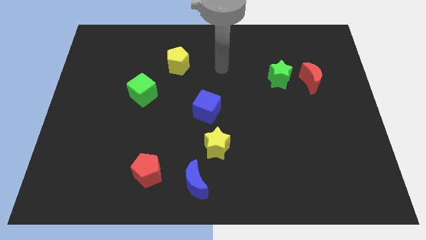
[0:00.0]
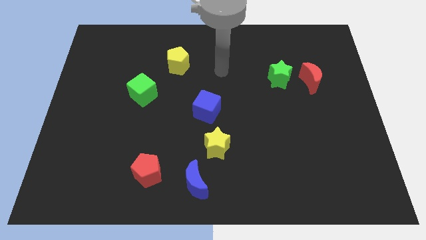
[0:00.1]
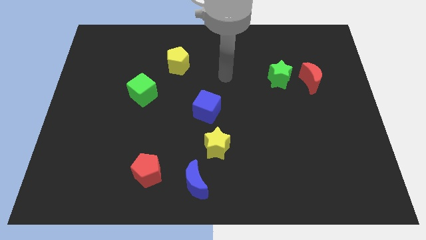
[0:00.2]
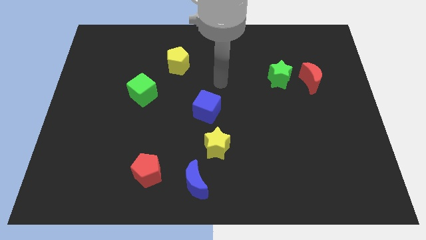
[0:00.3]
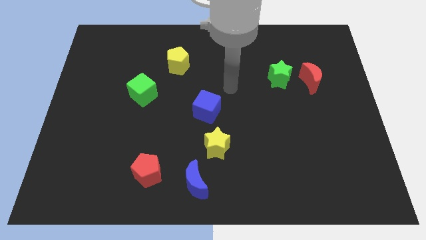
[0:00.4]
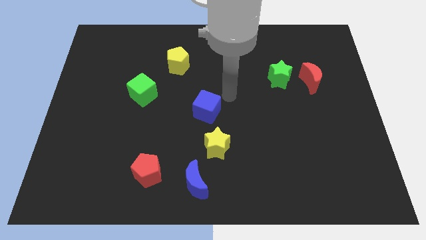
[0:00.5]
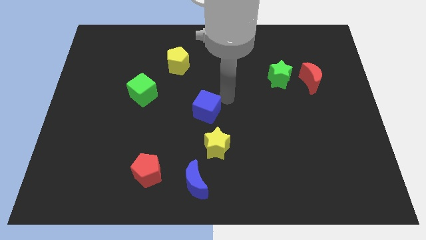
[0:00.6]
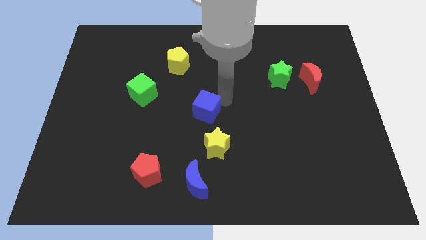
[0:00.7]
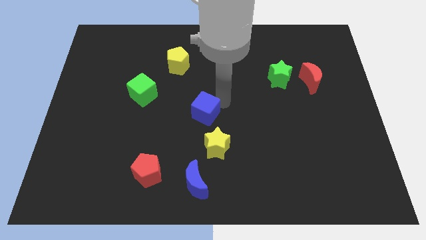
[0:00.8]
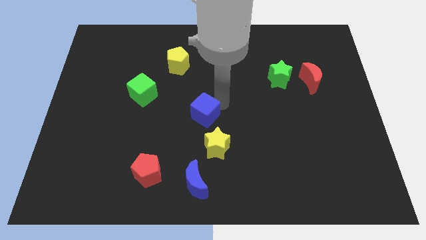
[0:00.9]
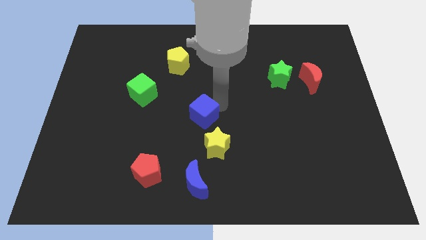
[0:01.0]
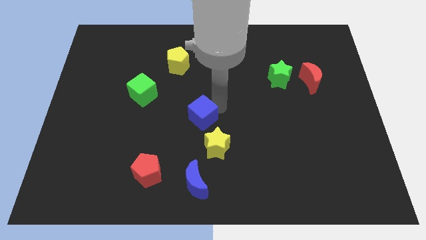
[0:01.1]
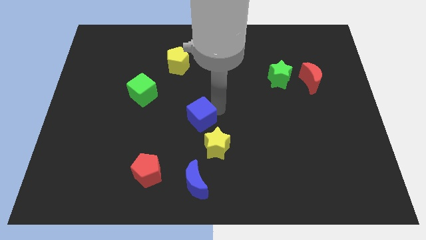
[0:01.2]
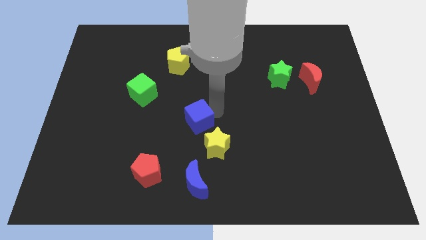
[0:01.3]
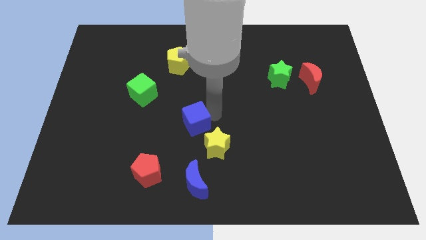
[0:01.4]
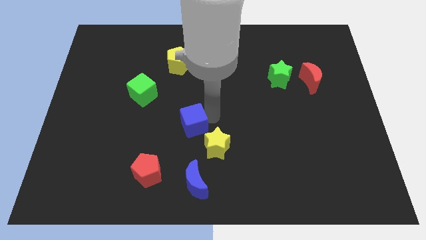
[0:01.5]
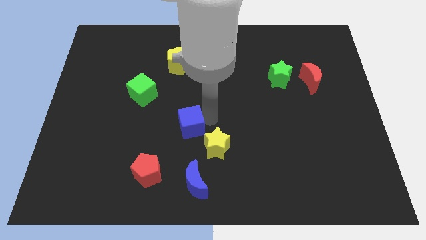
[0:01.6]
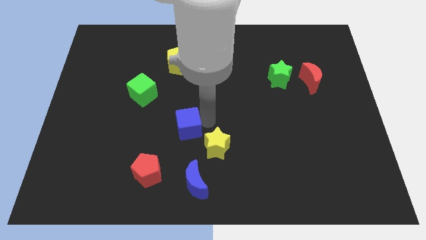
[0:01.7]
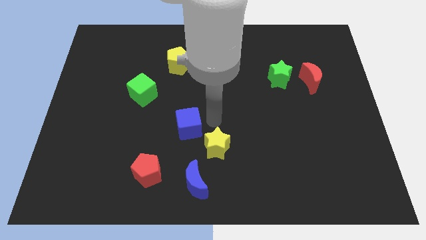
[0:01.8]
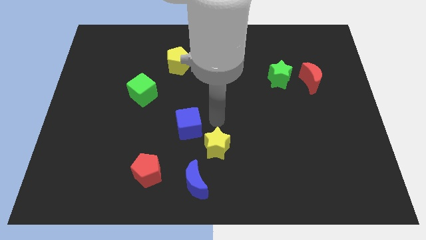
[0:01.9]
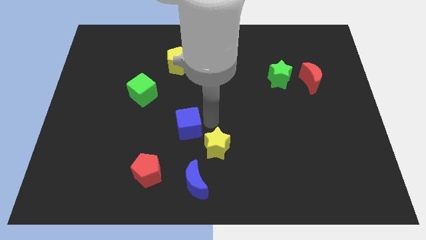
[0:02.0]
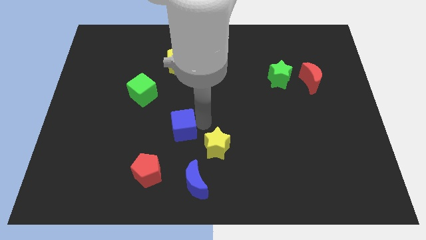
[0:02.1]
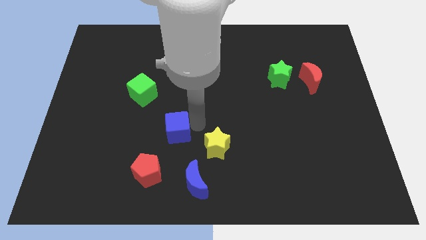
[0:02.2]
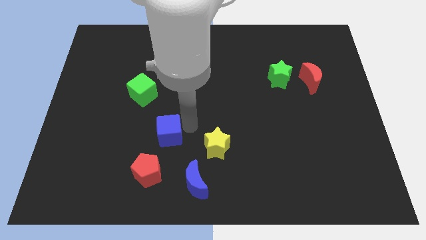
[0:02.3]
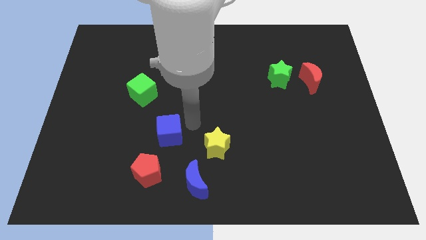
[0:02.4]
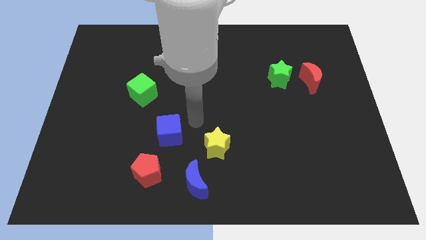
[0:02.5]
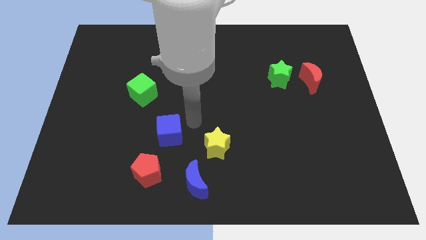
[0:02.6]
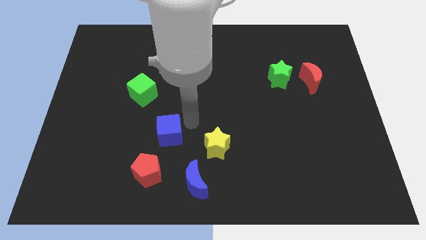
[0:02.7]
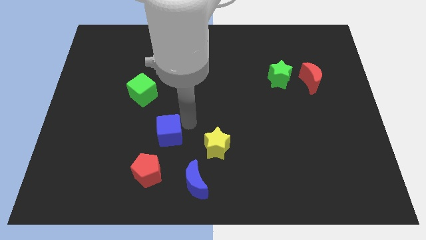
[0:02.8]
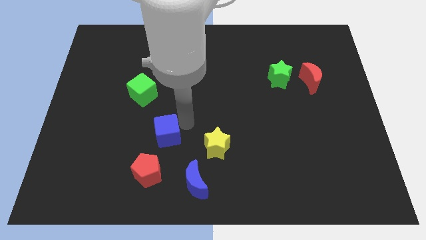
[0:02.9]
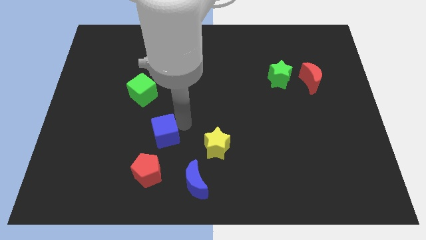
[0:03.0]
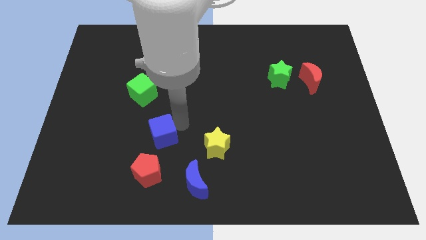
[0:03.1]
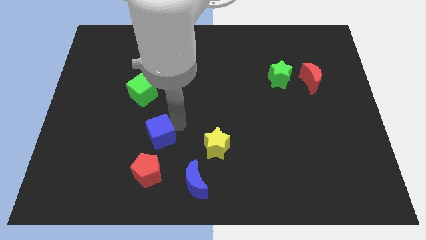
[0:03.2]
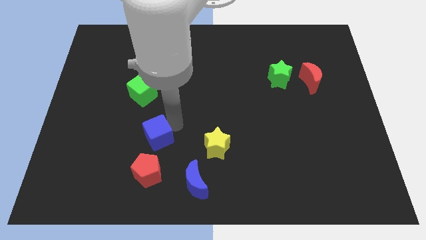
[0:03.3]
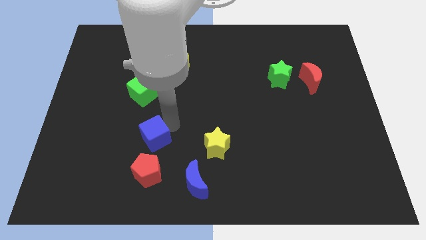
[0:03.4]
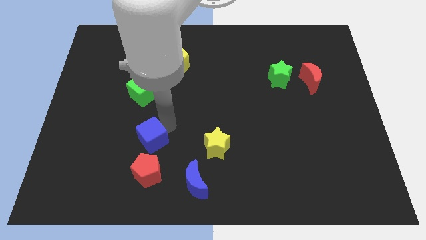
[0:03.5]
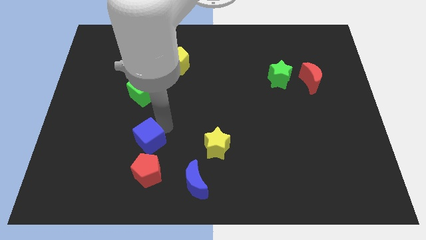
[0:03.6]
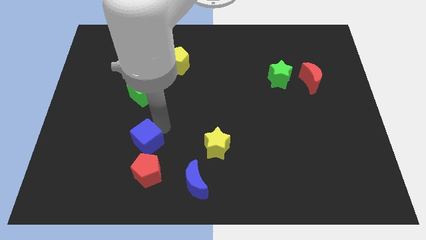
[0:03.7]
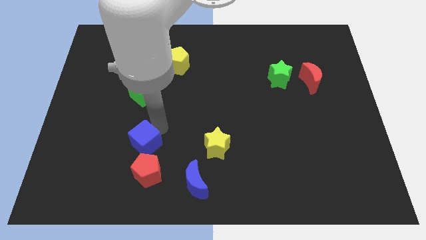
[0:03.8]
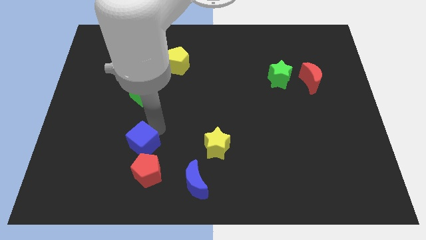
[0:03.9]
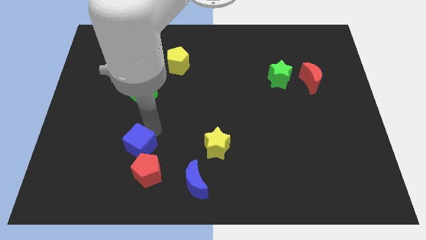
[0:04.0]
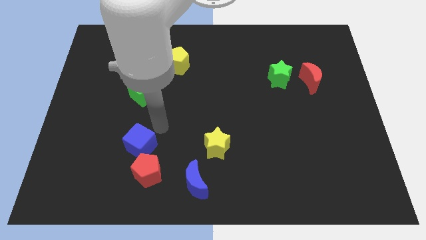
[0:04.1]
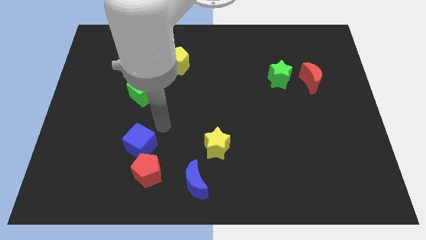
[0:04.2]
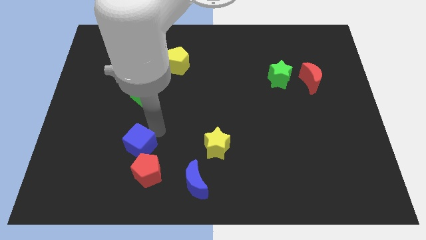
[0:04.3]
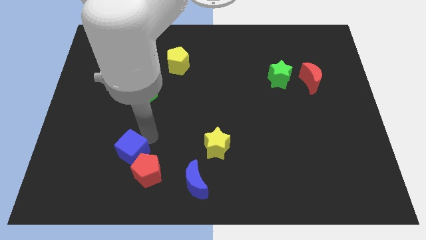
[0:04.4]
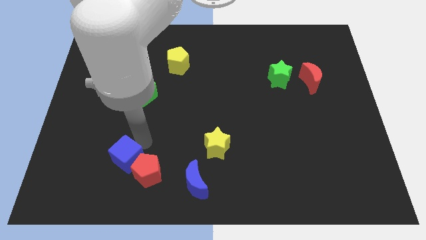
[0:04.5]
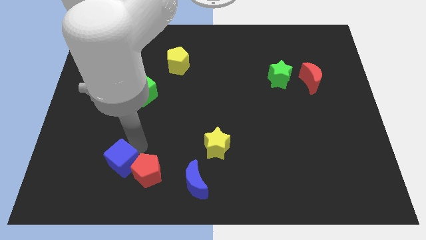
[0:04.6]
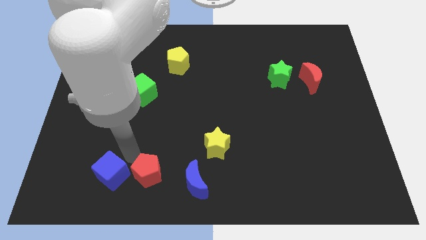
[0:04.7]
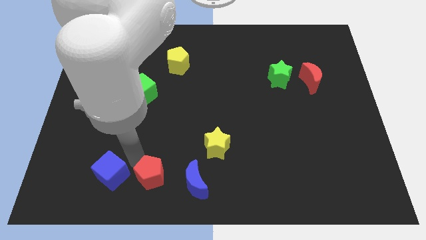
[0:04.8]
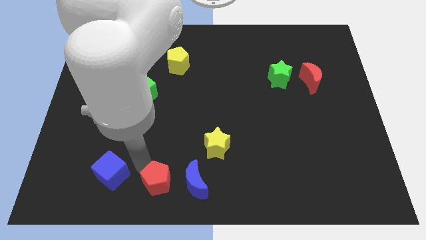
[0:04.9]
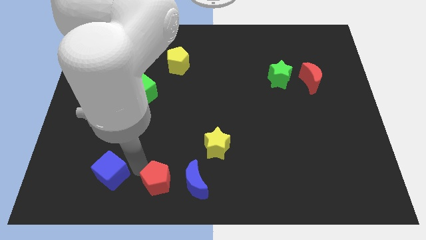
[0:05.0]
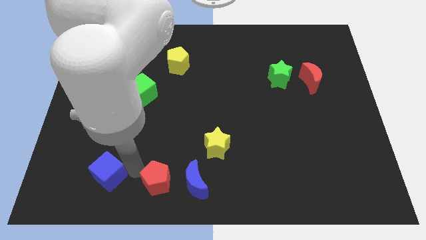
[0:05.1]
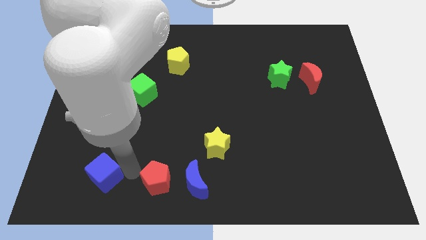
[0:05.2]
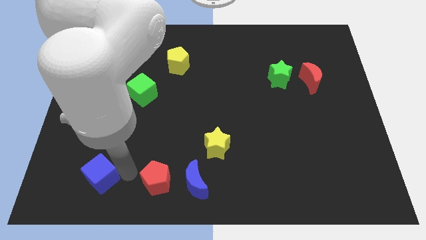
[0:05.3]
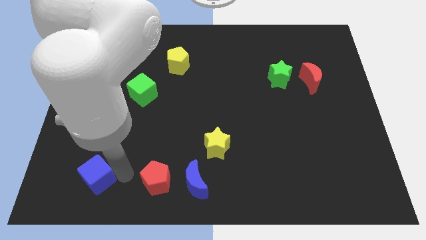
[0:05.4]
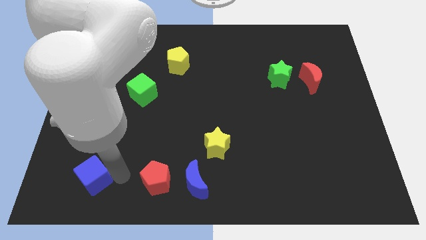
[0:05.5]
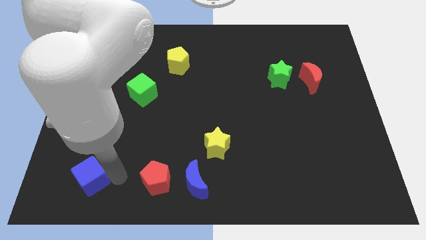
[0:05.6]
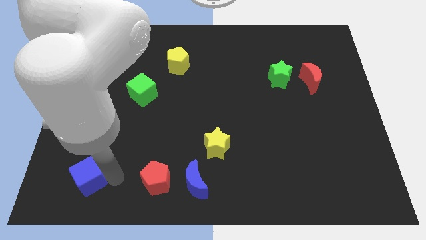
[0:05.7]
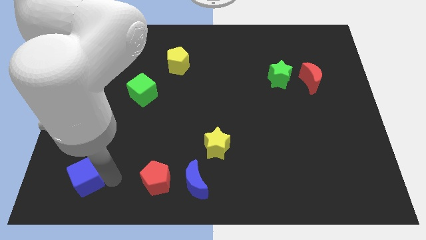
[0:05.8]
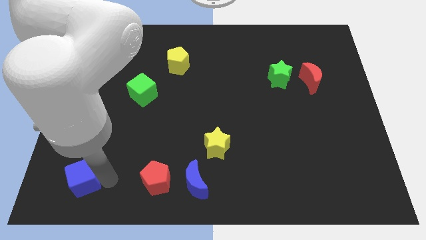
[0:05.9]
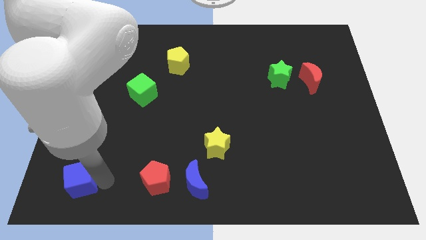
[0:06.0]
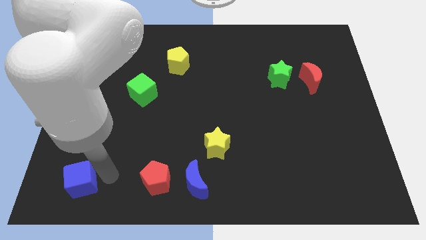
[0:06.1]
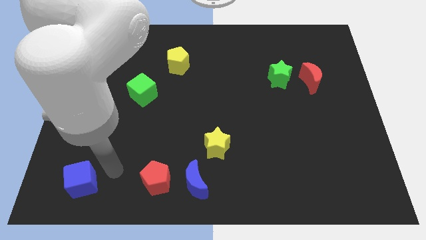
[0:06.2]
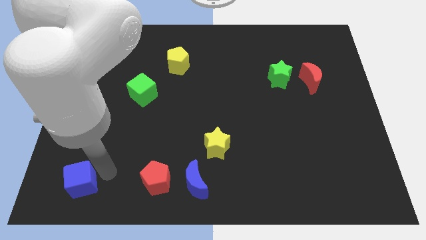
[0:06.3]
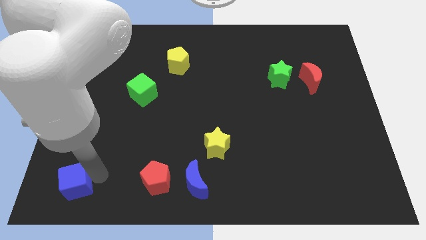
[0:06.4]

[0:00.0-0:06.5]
move the blue cube to the bottom left corner
